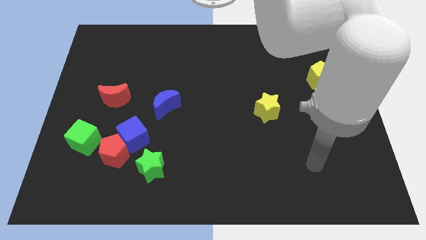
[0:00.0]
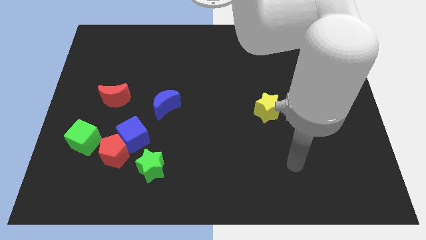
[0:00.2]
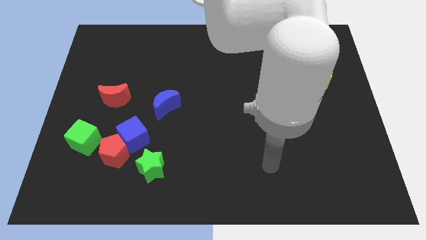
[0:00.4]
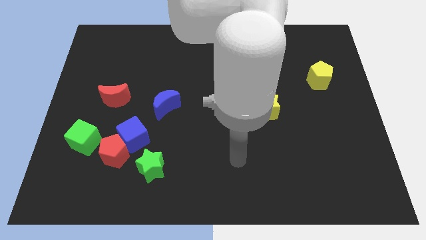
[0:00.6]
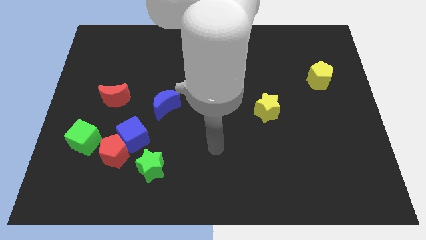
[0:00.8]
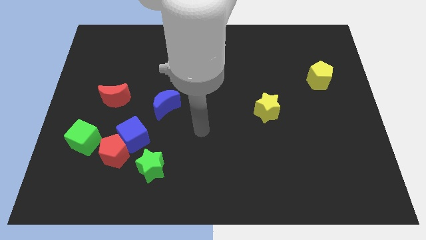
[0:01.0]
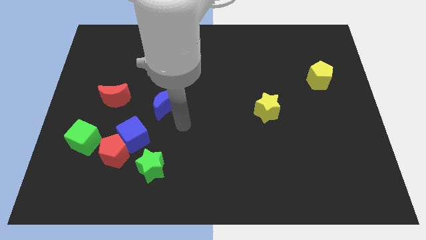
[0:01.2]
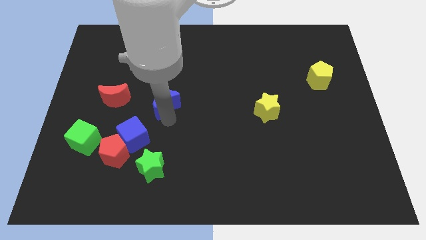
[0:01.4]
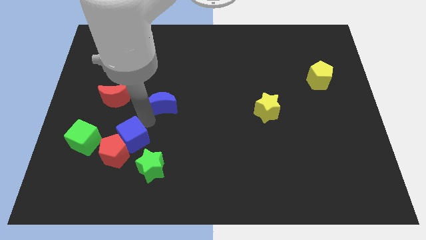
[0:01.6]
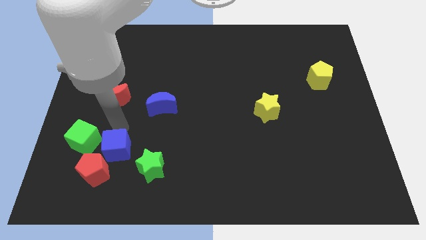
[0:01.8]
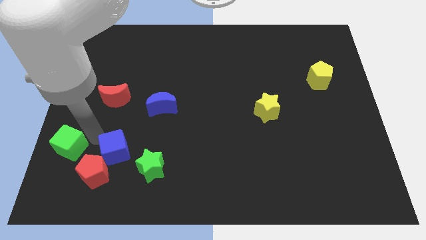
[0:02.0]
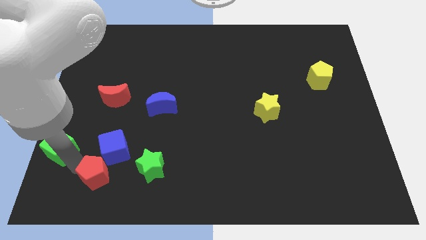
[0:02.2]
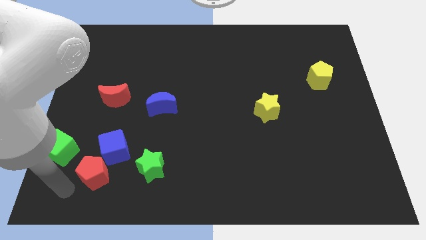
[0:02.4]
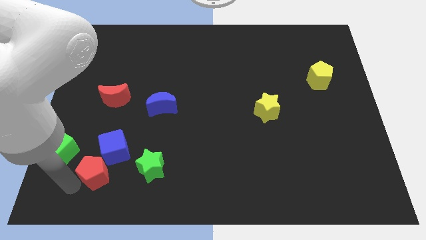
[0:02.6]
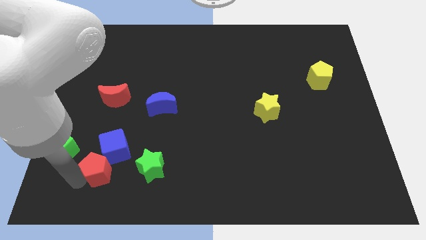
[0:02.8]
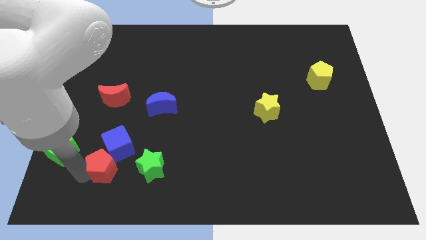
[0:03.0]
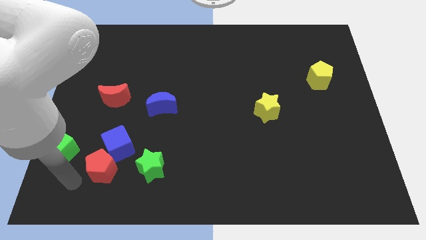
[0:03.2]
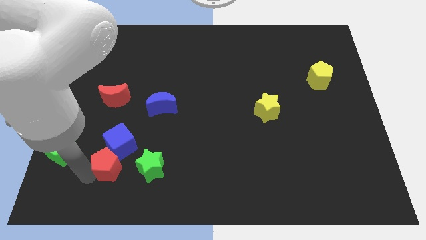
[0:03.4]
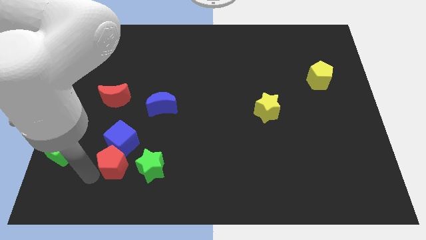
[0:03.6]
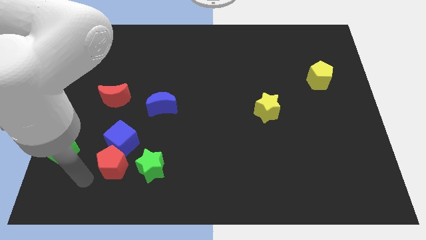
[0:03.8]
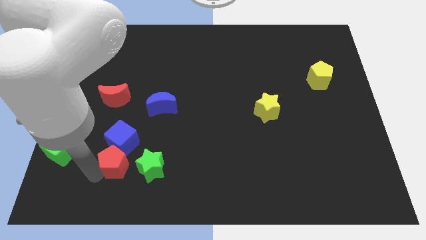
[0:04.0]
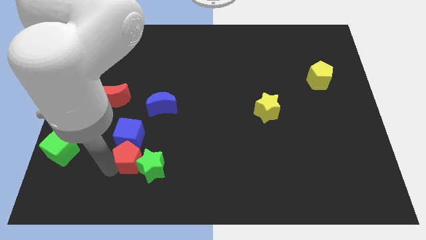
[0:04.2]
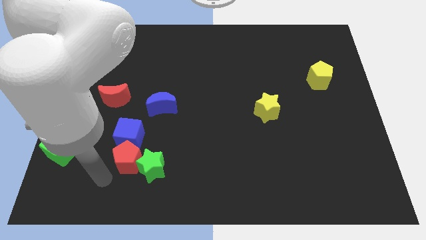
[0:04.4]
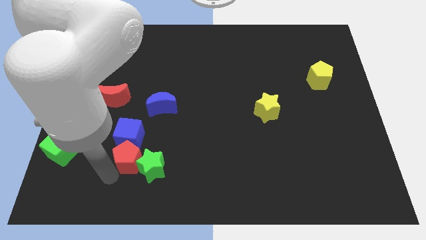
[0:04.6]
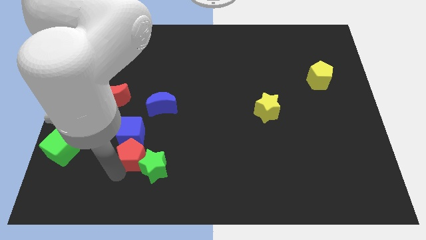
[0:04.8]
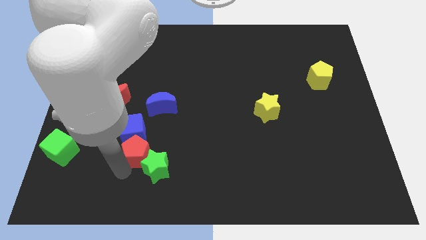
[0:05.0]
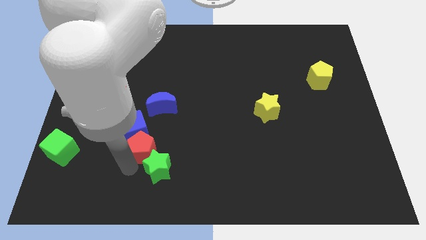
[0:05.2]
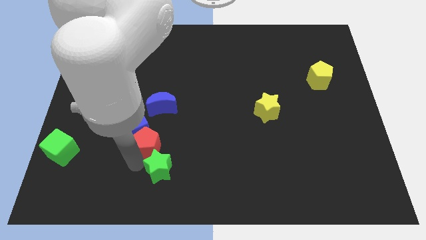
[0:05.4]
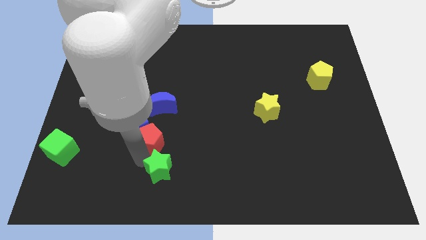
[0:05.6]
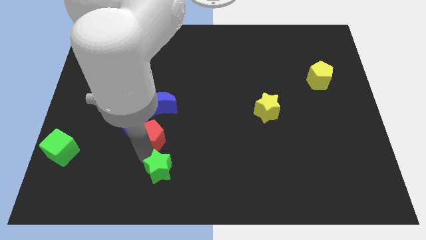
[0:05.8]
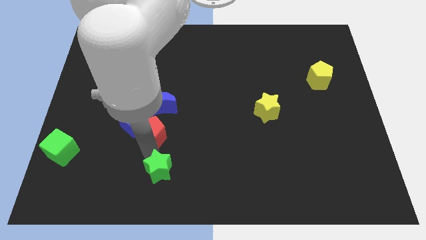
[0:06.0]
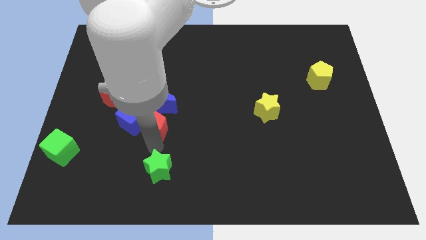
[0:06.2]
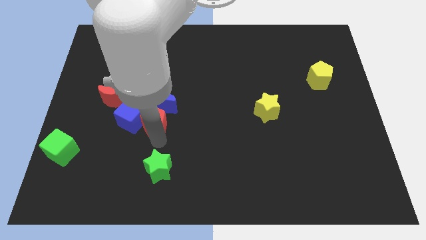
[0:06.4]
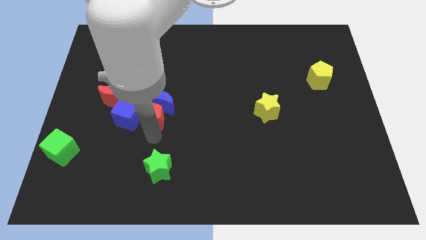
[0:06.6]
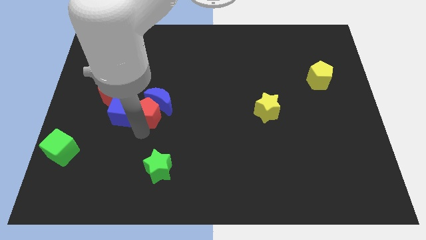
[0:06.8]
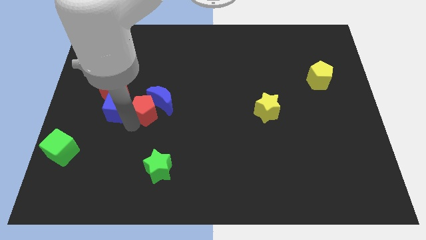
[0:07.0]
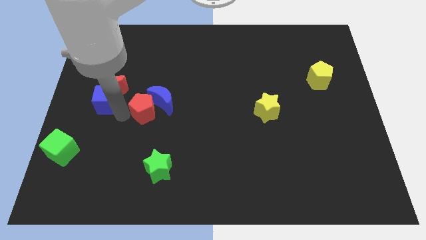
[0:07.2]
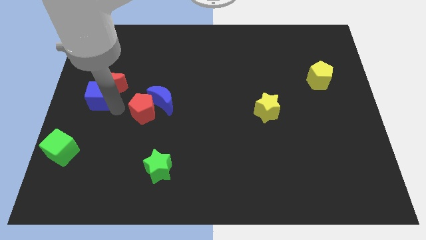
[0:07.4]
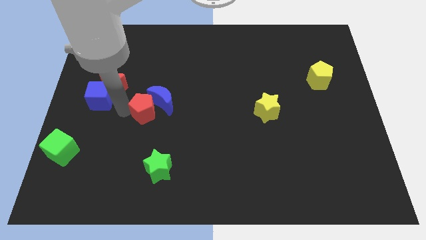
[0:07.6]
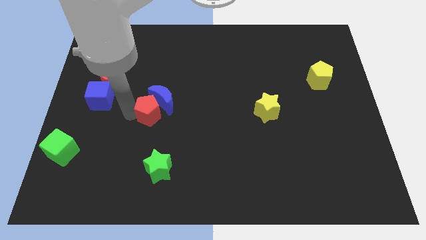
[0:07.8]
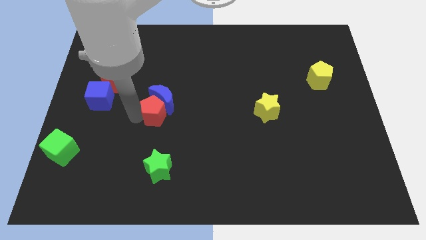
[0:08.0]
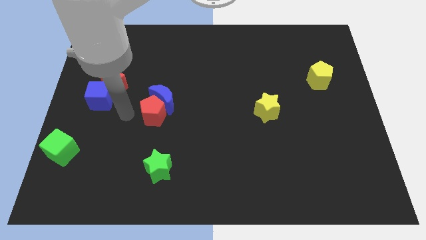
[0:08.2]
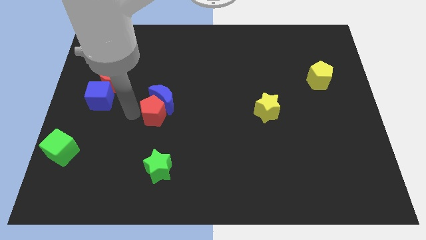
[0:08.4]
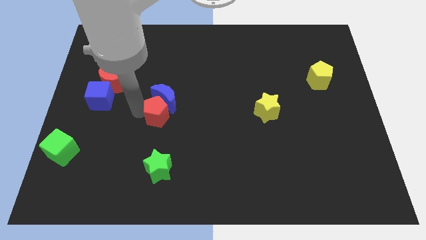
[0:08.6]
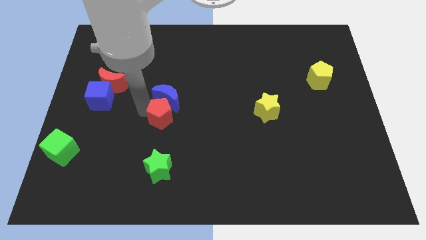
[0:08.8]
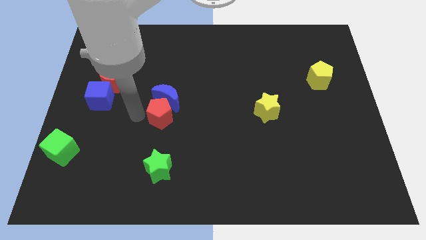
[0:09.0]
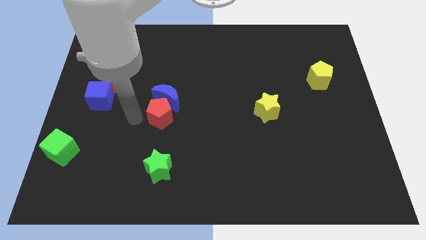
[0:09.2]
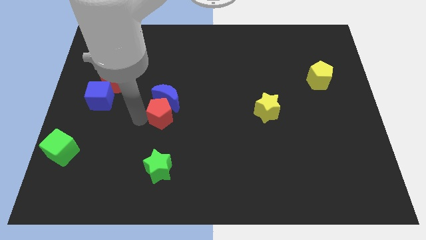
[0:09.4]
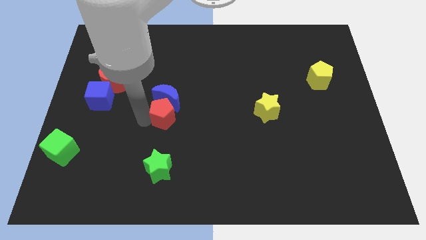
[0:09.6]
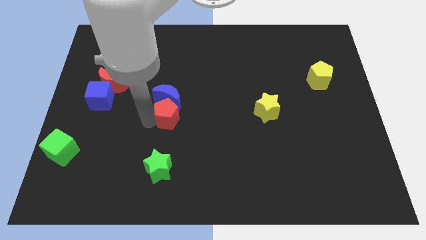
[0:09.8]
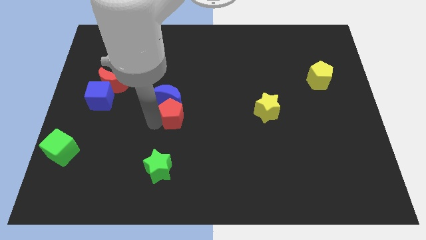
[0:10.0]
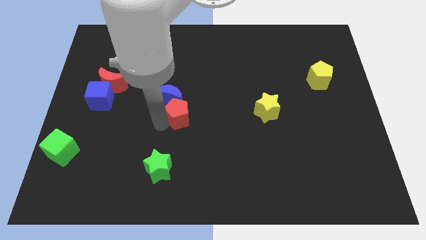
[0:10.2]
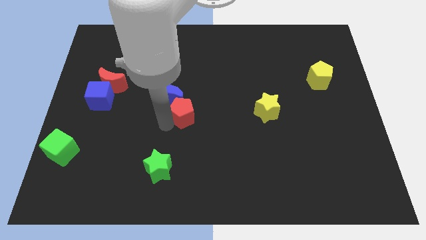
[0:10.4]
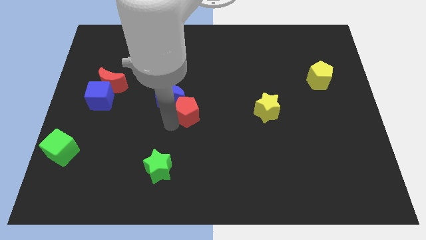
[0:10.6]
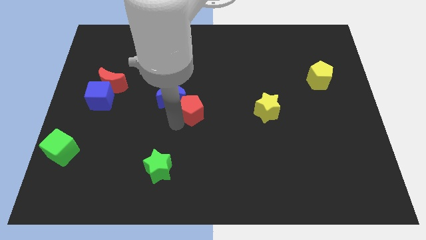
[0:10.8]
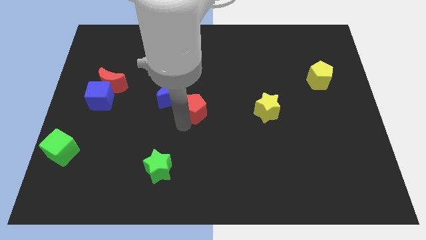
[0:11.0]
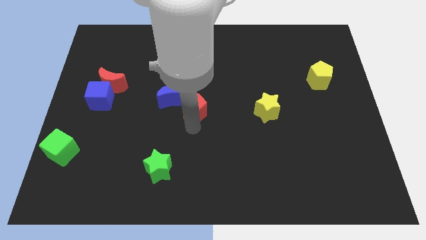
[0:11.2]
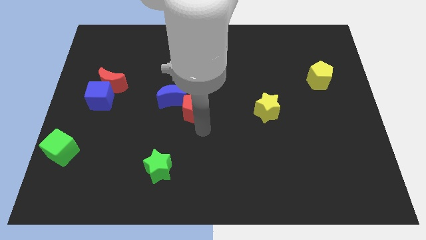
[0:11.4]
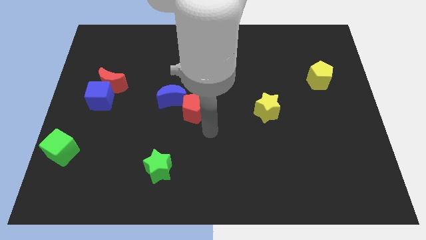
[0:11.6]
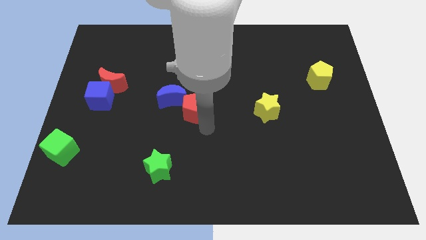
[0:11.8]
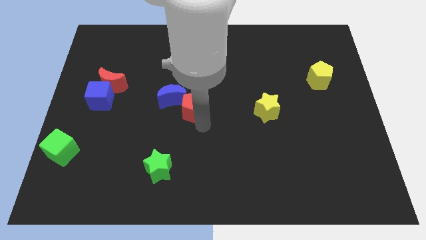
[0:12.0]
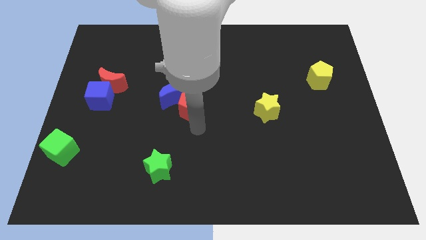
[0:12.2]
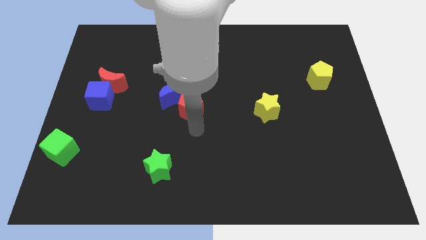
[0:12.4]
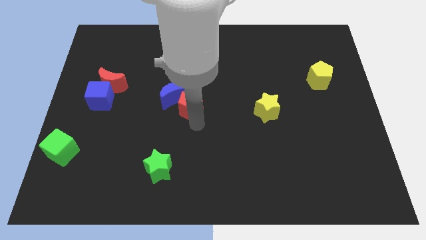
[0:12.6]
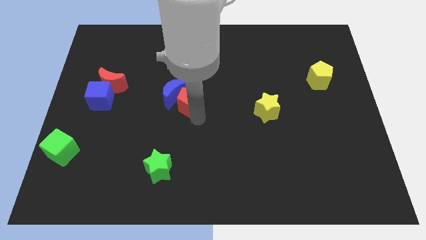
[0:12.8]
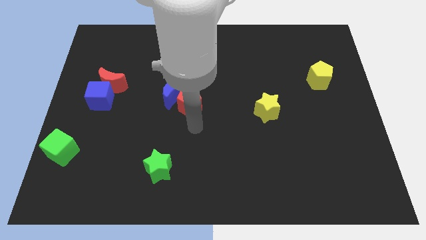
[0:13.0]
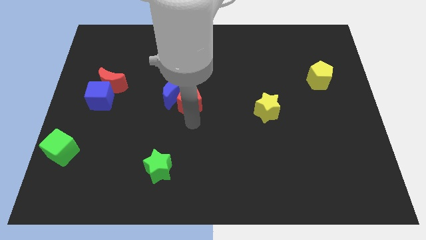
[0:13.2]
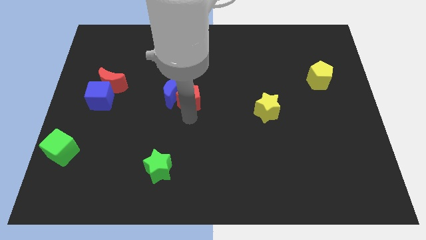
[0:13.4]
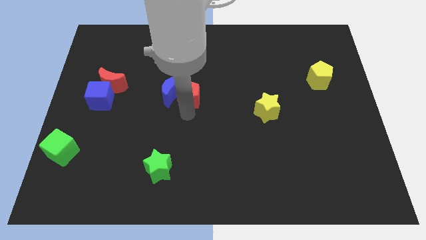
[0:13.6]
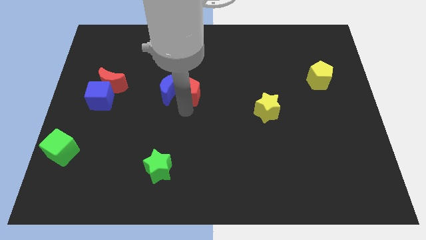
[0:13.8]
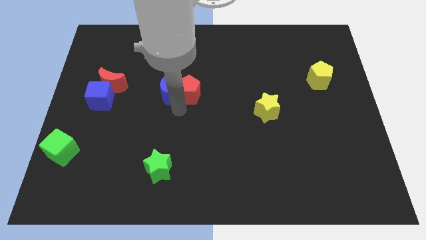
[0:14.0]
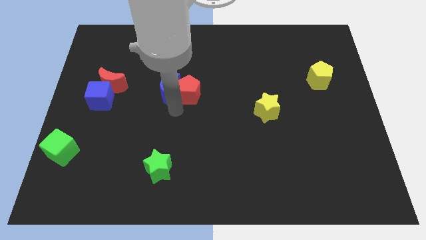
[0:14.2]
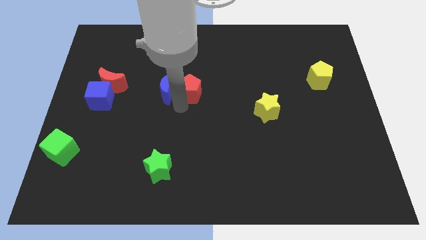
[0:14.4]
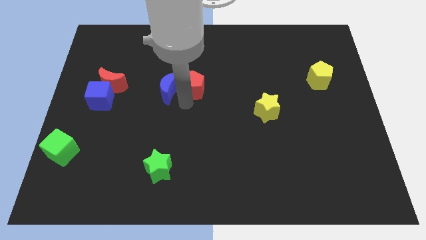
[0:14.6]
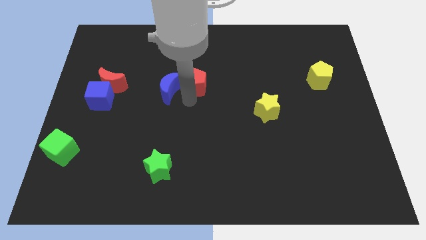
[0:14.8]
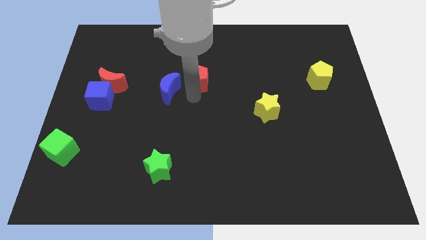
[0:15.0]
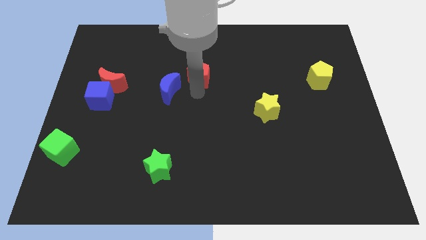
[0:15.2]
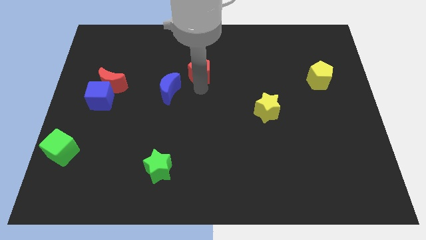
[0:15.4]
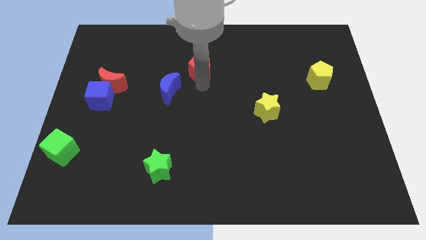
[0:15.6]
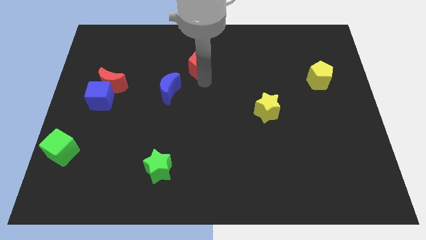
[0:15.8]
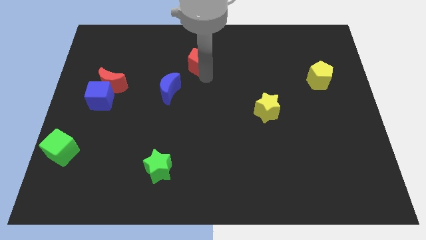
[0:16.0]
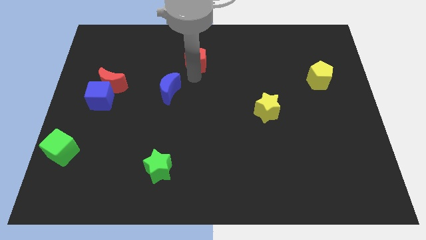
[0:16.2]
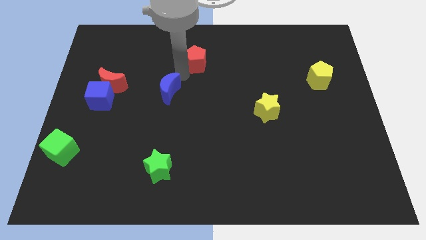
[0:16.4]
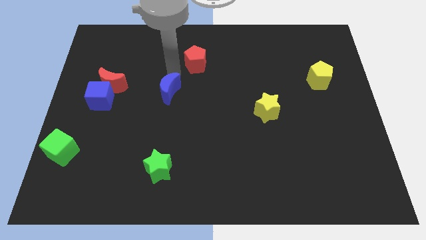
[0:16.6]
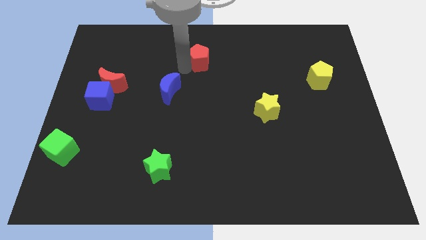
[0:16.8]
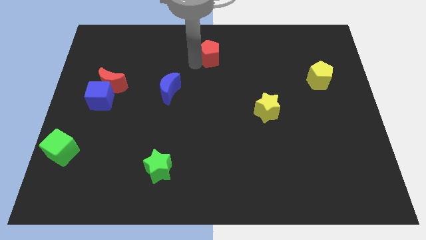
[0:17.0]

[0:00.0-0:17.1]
push the red pentagon to the towards your base
